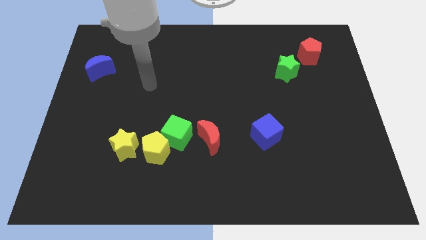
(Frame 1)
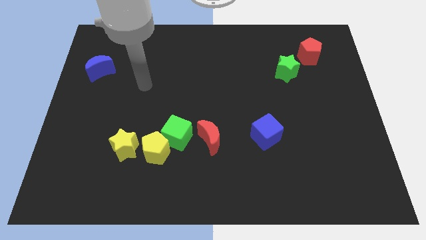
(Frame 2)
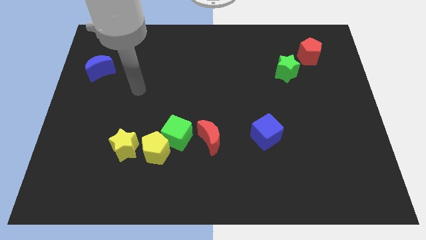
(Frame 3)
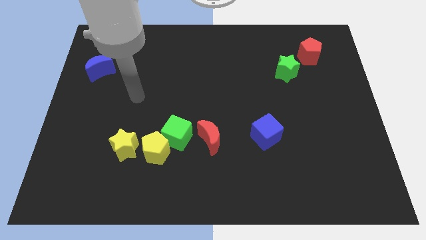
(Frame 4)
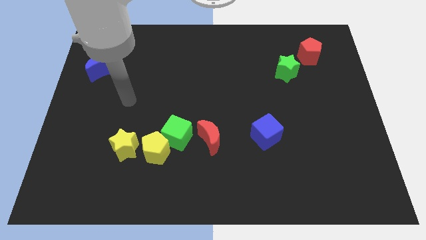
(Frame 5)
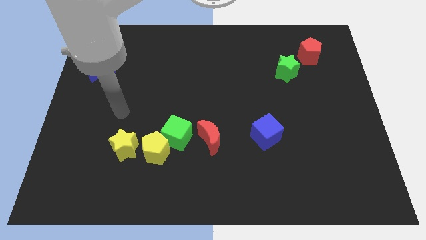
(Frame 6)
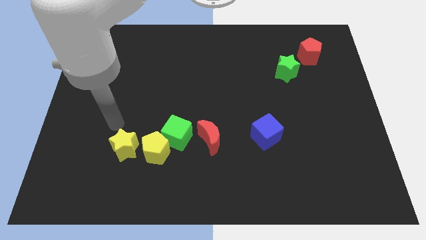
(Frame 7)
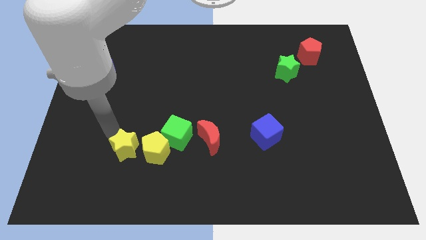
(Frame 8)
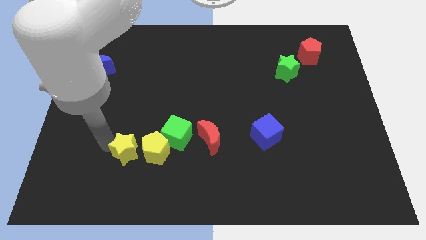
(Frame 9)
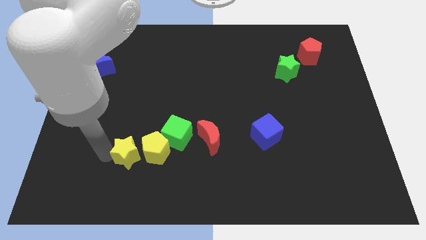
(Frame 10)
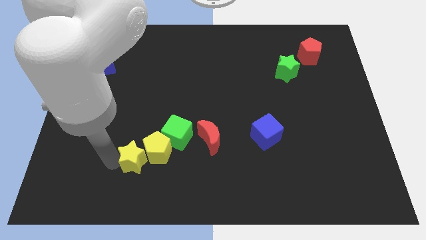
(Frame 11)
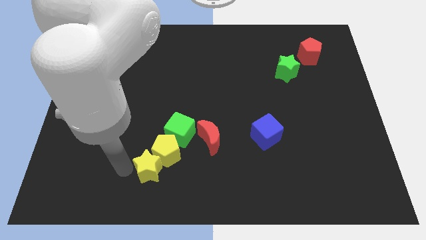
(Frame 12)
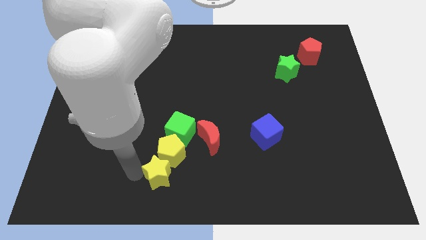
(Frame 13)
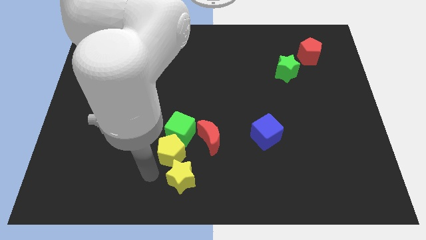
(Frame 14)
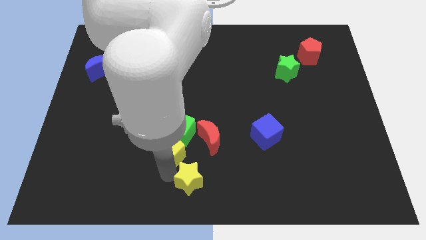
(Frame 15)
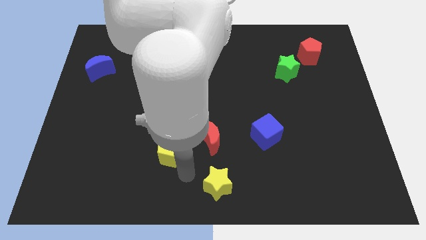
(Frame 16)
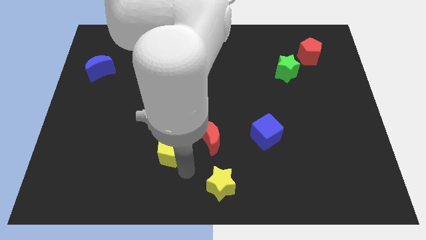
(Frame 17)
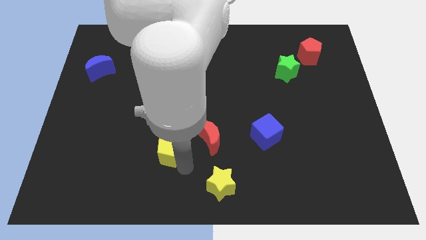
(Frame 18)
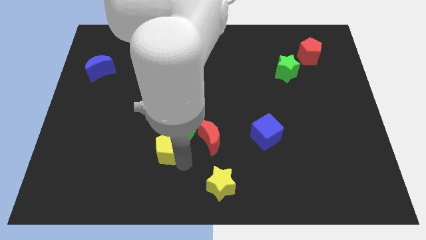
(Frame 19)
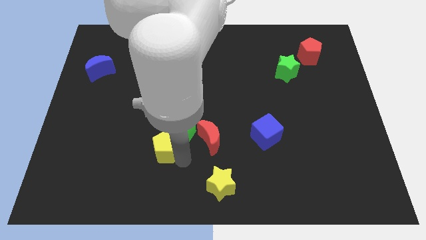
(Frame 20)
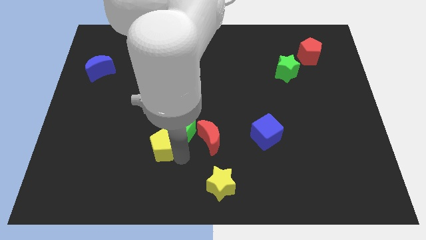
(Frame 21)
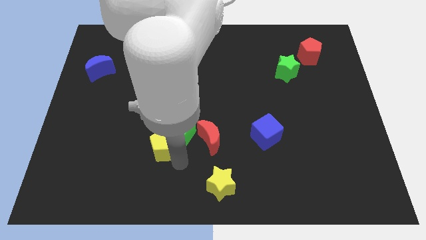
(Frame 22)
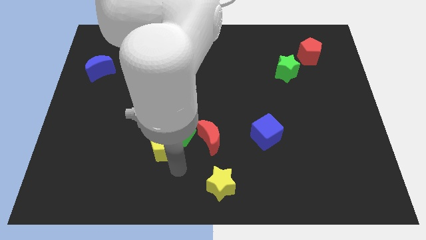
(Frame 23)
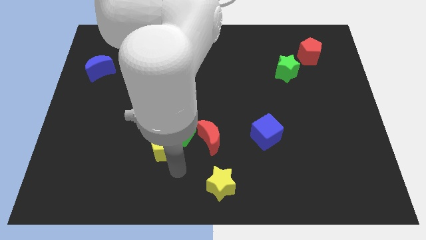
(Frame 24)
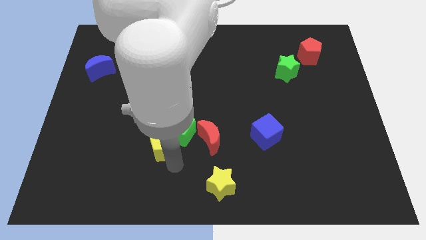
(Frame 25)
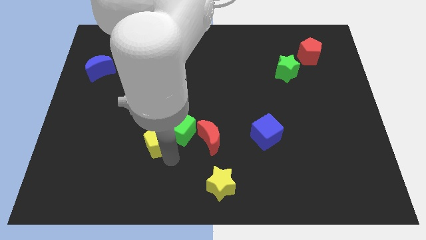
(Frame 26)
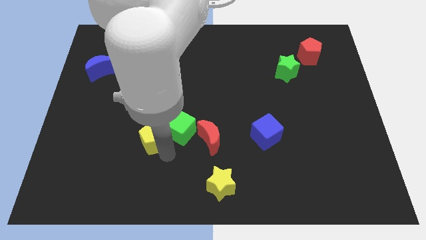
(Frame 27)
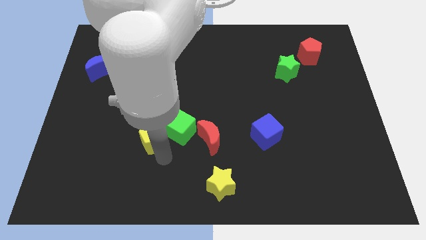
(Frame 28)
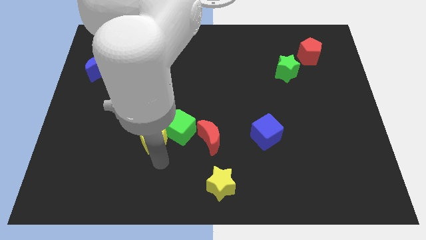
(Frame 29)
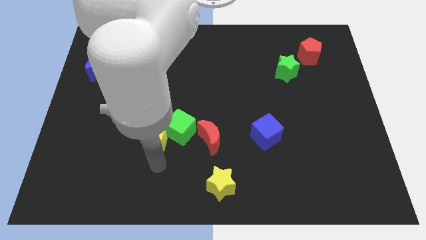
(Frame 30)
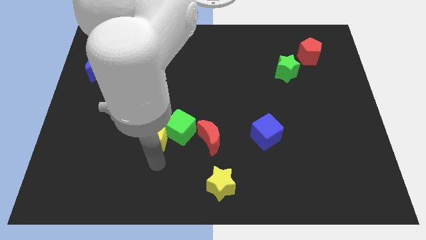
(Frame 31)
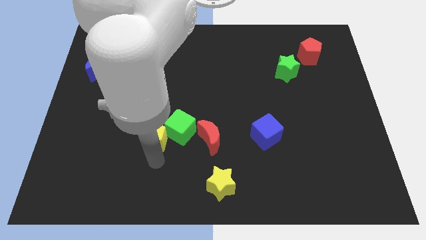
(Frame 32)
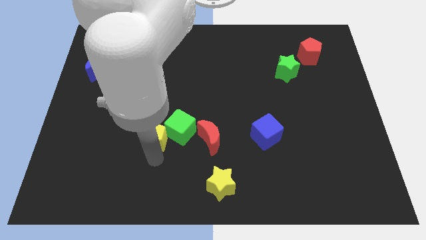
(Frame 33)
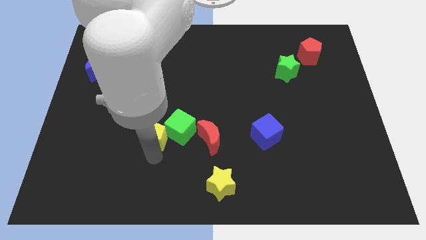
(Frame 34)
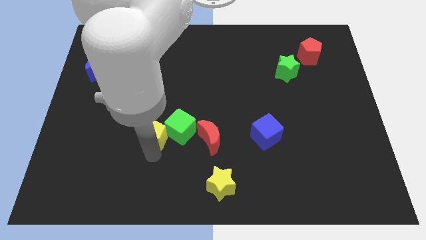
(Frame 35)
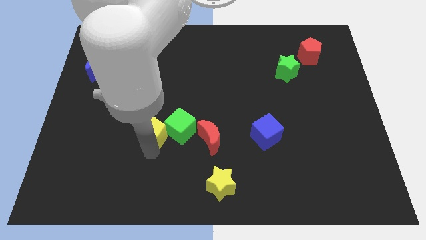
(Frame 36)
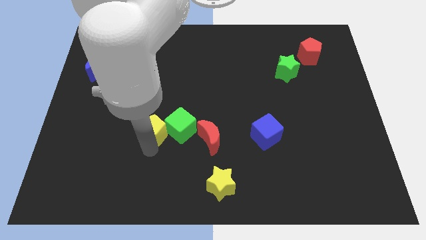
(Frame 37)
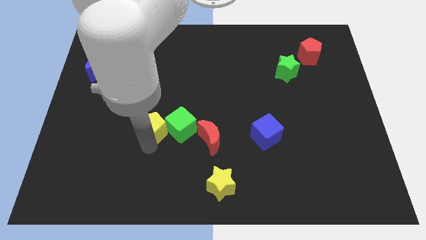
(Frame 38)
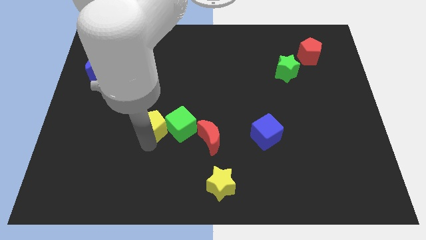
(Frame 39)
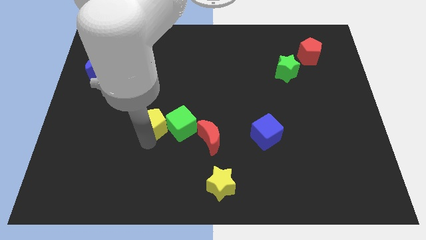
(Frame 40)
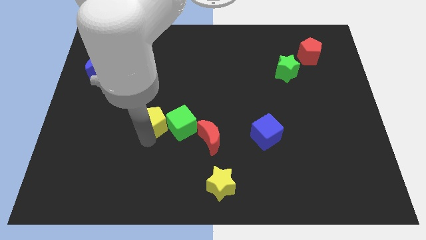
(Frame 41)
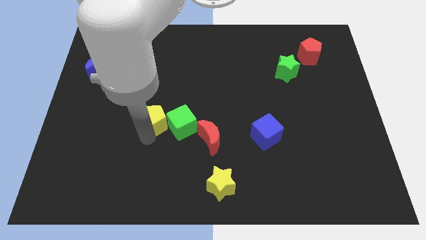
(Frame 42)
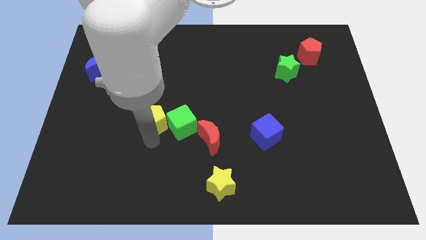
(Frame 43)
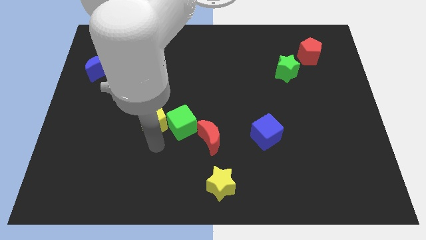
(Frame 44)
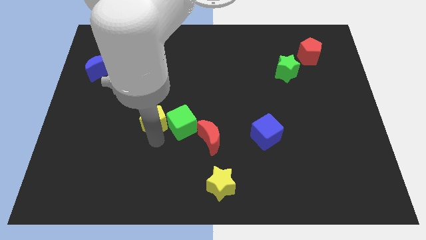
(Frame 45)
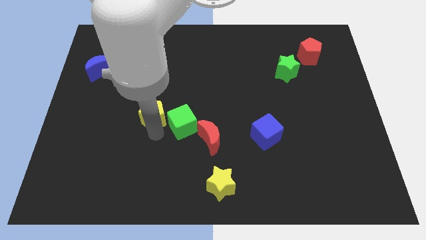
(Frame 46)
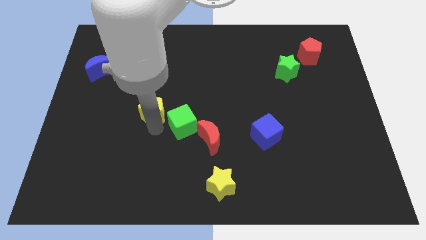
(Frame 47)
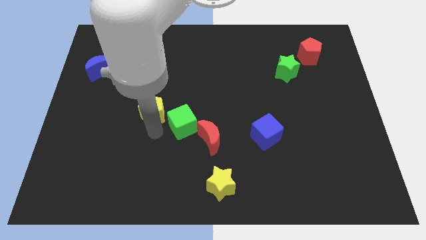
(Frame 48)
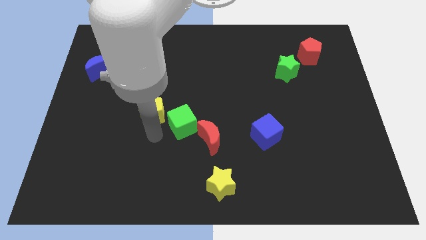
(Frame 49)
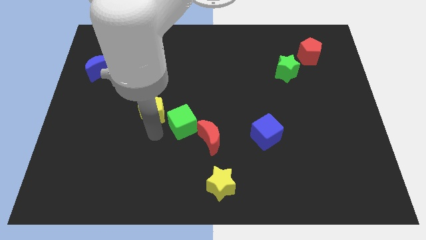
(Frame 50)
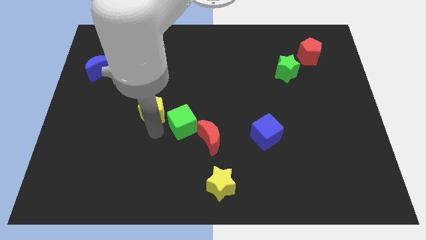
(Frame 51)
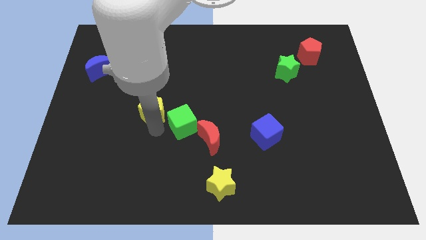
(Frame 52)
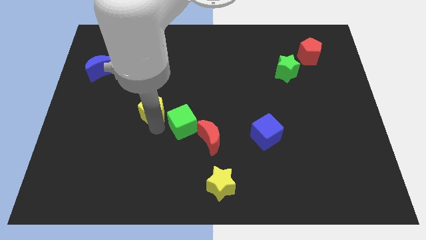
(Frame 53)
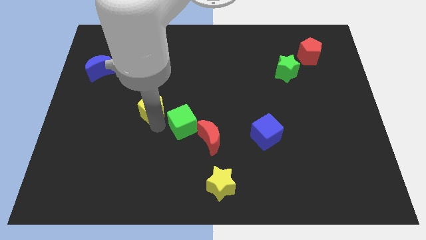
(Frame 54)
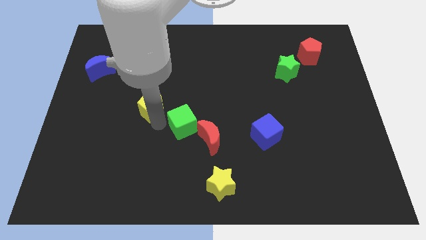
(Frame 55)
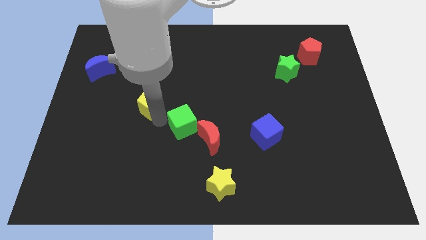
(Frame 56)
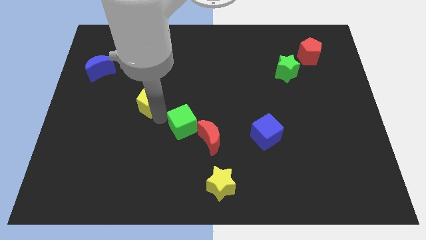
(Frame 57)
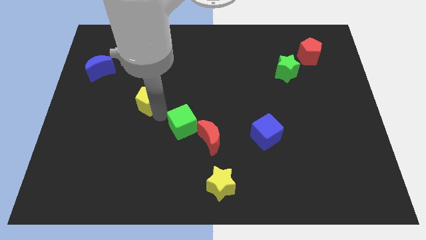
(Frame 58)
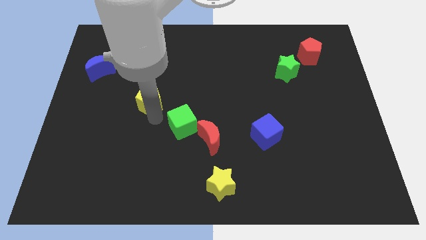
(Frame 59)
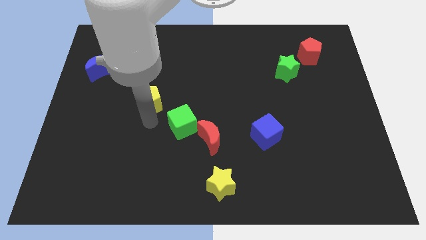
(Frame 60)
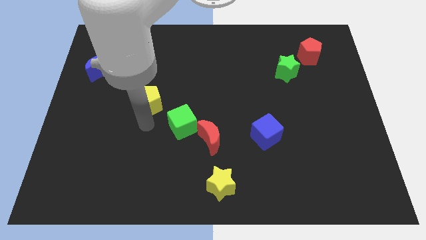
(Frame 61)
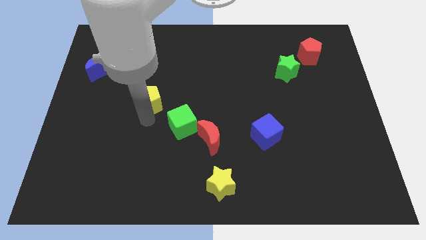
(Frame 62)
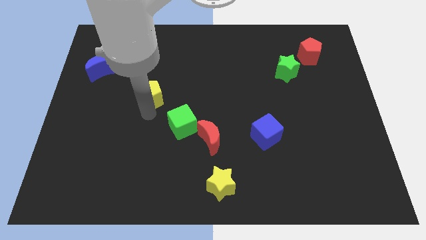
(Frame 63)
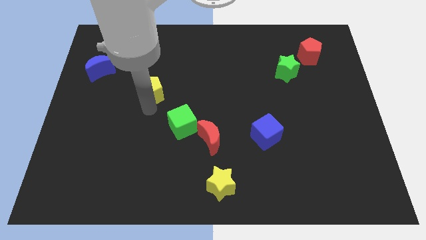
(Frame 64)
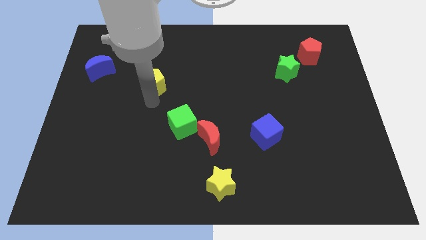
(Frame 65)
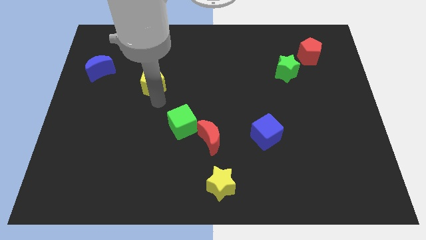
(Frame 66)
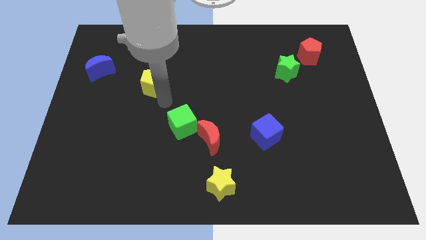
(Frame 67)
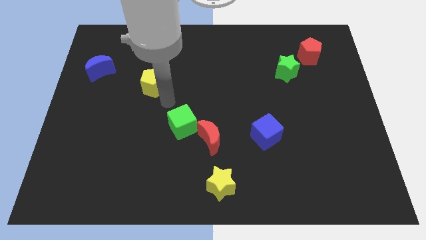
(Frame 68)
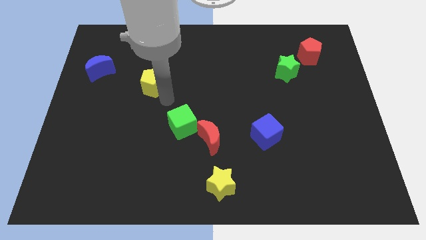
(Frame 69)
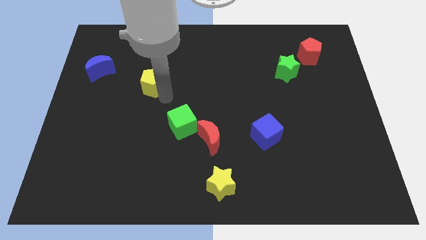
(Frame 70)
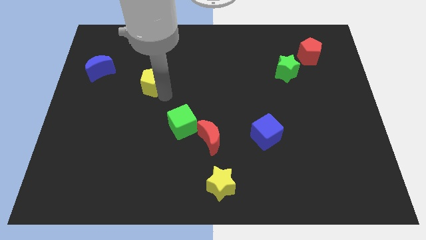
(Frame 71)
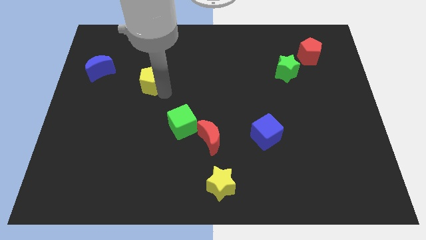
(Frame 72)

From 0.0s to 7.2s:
slide the yellow pentagon right of the blue moon
